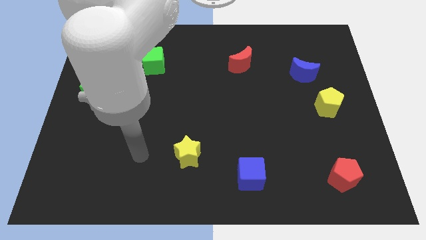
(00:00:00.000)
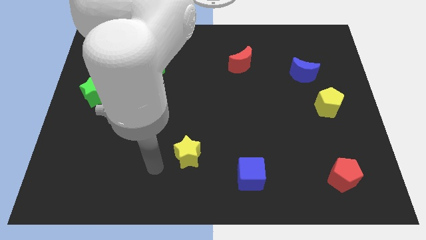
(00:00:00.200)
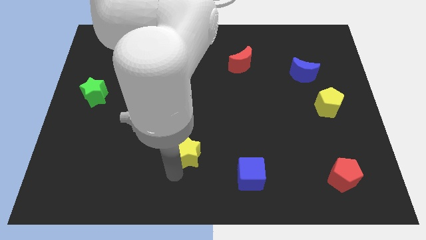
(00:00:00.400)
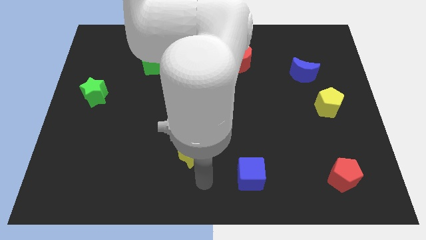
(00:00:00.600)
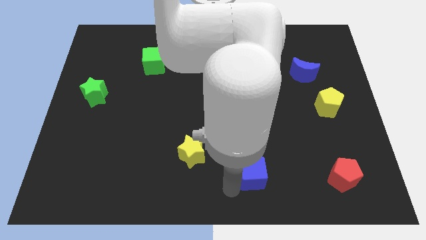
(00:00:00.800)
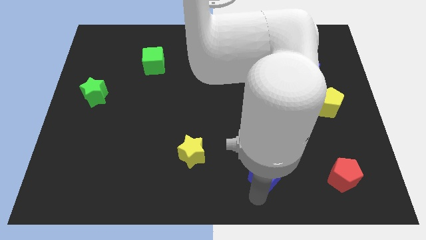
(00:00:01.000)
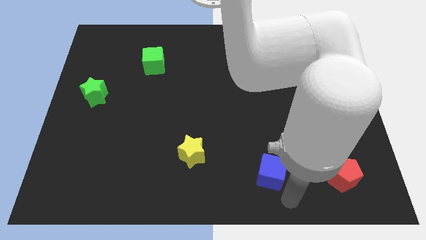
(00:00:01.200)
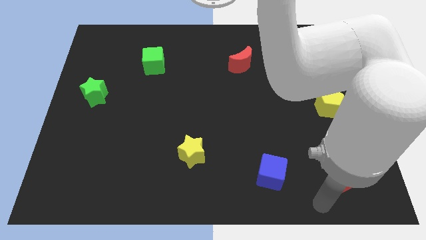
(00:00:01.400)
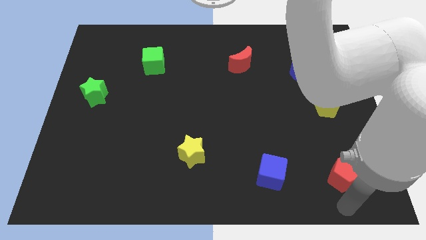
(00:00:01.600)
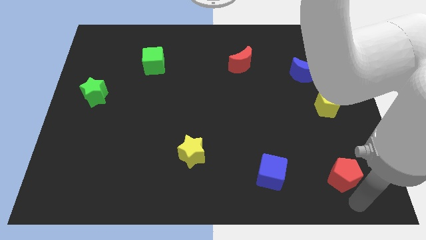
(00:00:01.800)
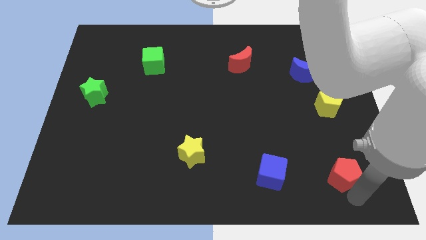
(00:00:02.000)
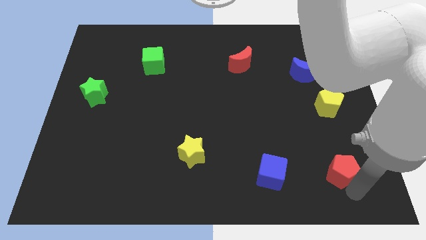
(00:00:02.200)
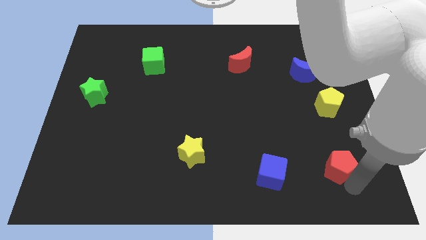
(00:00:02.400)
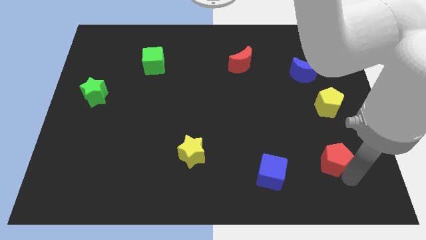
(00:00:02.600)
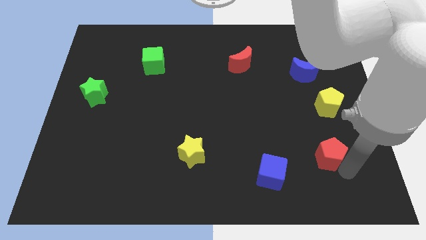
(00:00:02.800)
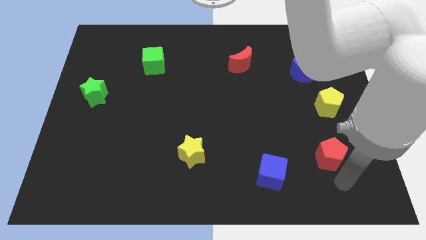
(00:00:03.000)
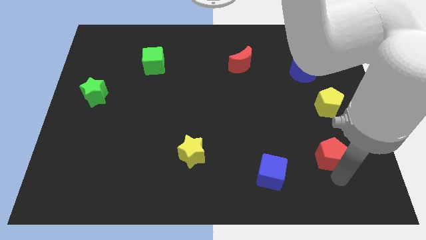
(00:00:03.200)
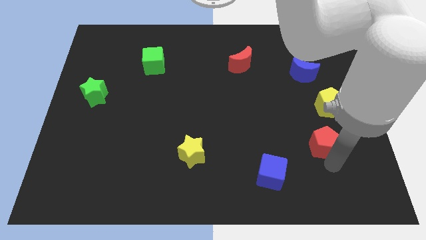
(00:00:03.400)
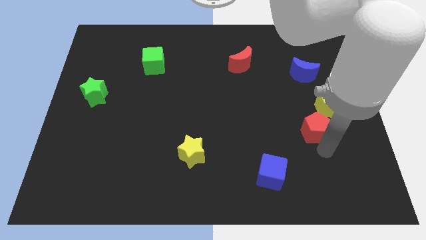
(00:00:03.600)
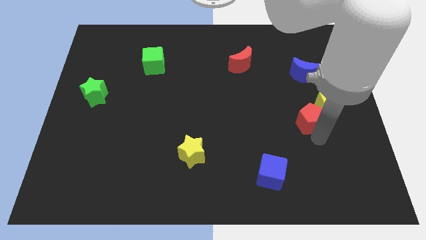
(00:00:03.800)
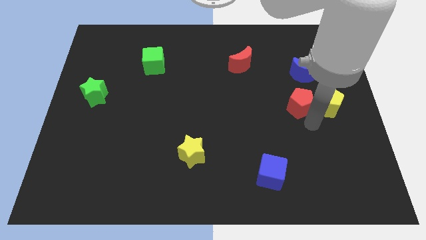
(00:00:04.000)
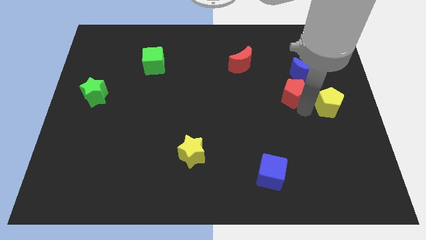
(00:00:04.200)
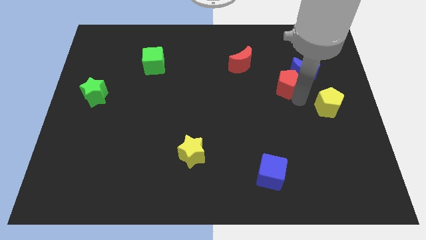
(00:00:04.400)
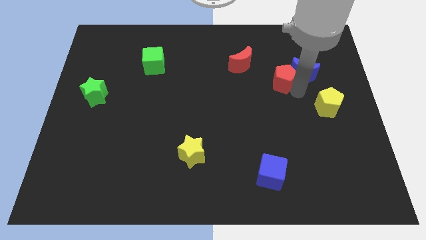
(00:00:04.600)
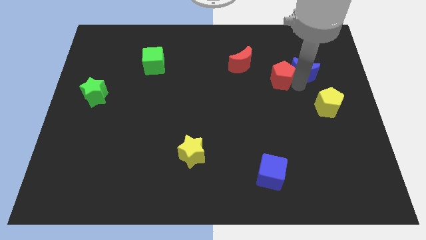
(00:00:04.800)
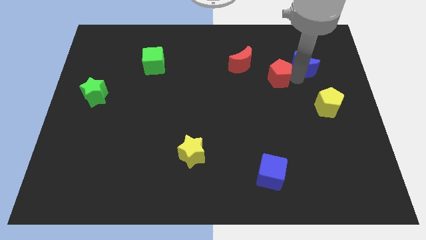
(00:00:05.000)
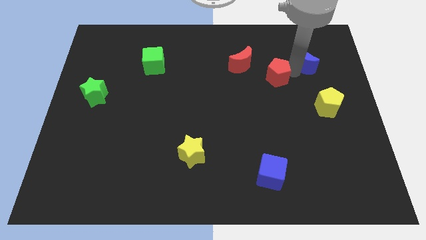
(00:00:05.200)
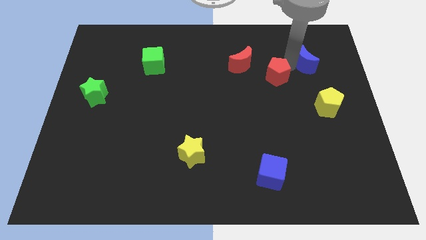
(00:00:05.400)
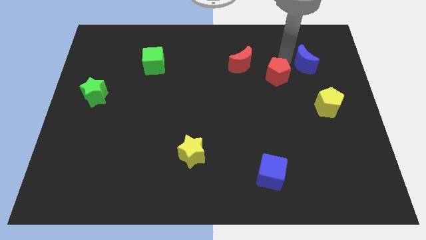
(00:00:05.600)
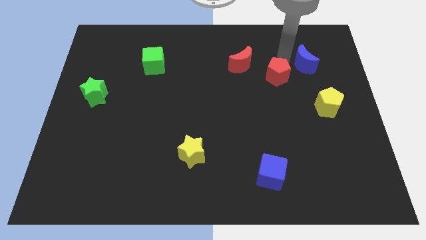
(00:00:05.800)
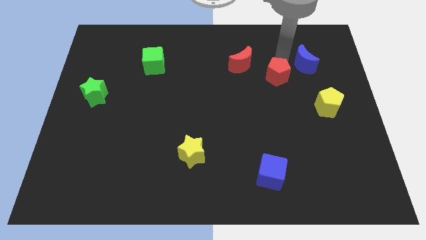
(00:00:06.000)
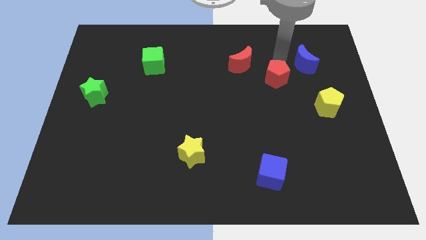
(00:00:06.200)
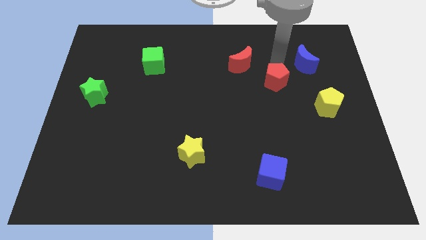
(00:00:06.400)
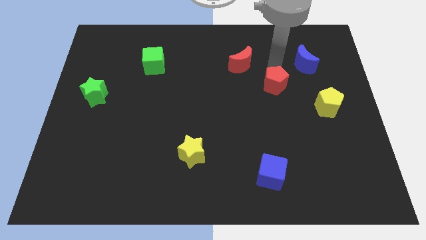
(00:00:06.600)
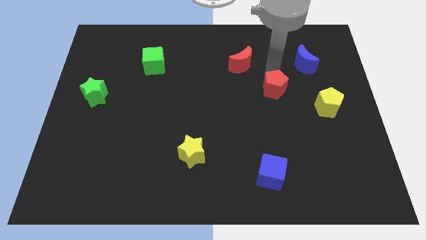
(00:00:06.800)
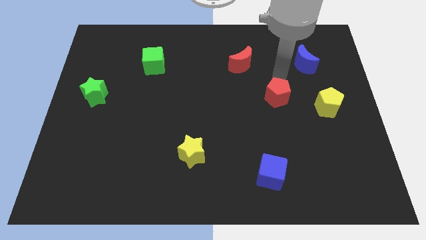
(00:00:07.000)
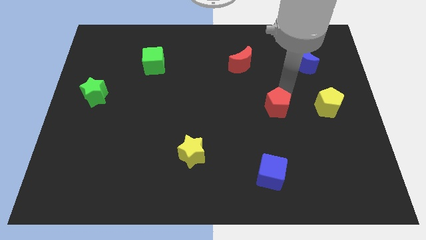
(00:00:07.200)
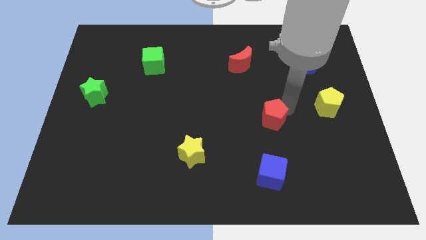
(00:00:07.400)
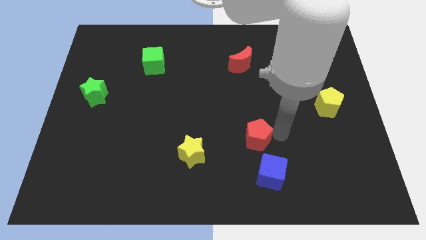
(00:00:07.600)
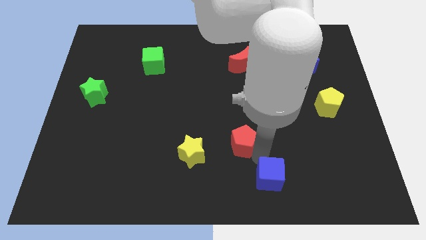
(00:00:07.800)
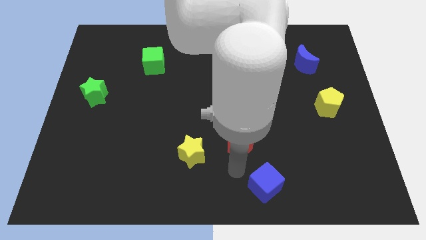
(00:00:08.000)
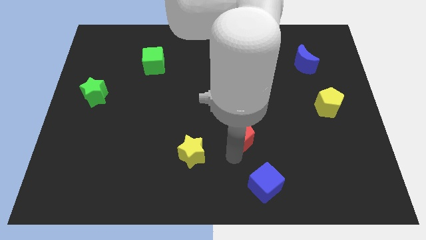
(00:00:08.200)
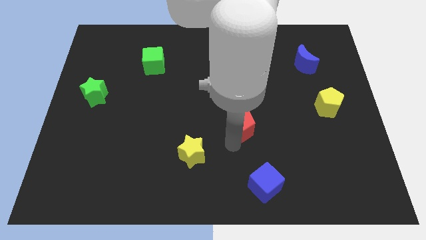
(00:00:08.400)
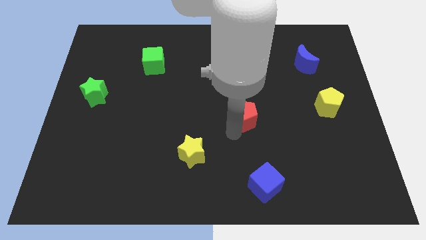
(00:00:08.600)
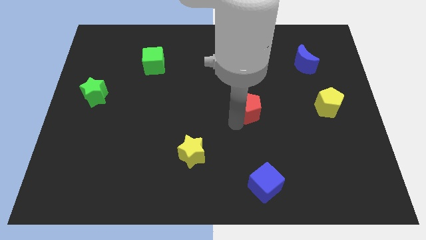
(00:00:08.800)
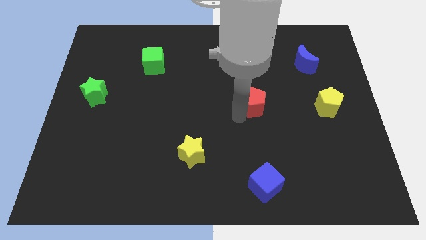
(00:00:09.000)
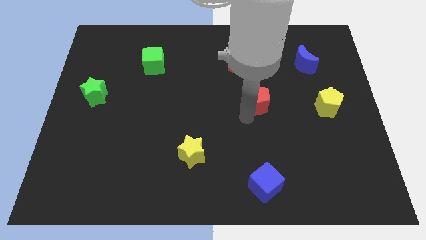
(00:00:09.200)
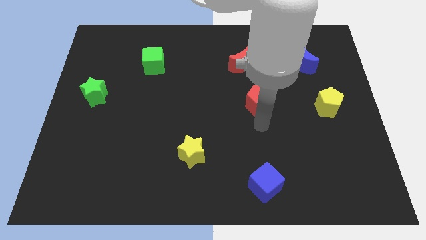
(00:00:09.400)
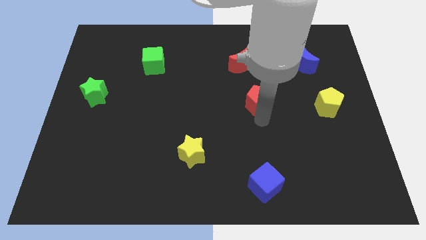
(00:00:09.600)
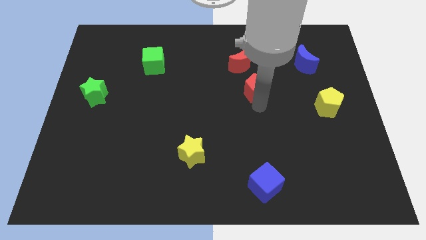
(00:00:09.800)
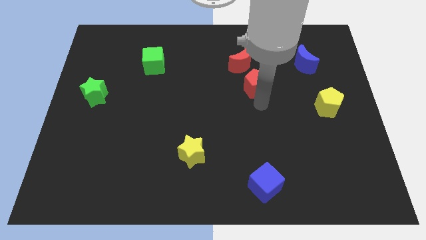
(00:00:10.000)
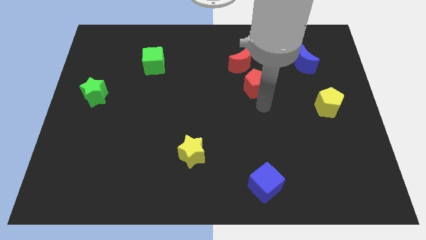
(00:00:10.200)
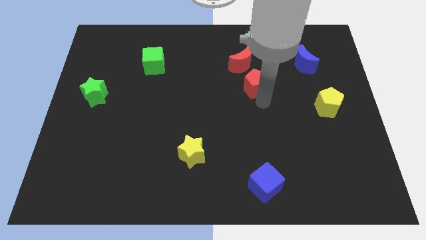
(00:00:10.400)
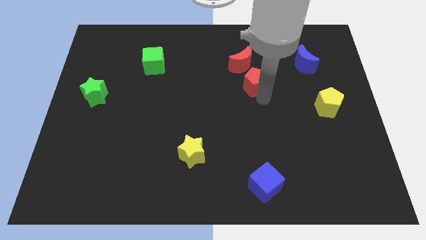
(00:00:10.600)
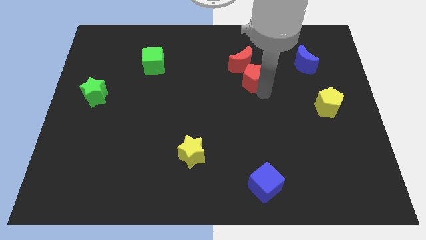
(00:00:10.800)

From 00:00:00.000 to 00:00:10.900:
push the red pentagon close to the red moon

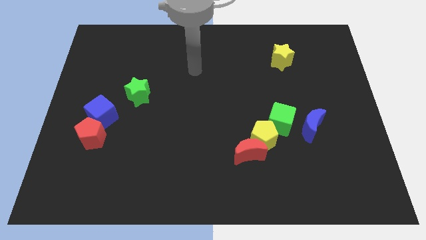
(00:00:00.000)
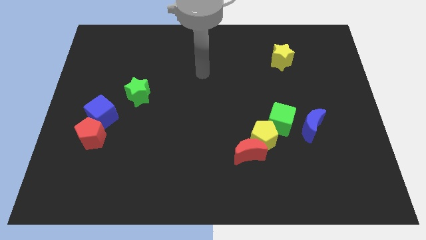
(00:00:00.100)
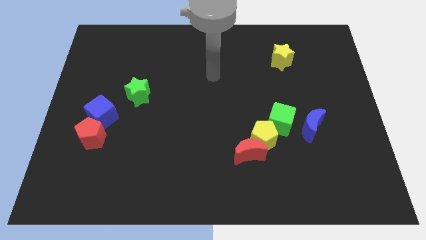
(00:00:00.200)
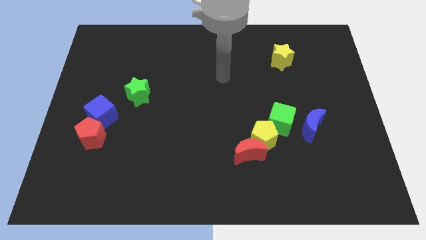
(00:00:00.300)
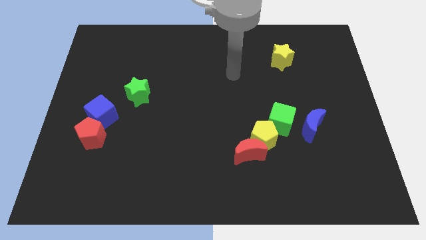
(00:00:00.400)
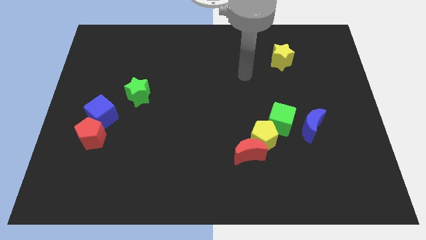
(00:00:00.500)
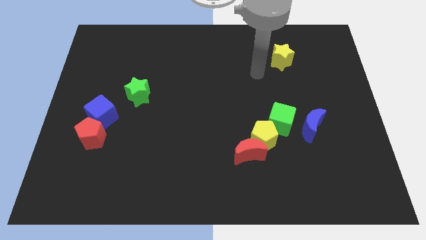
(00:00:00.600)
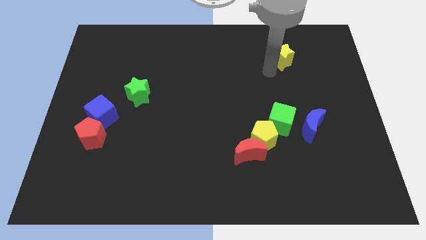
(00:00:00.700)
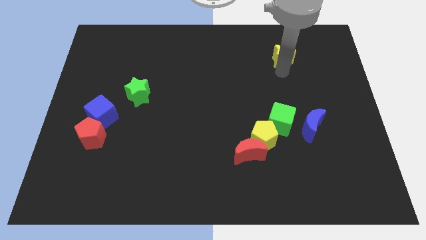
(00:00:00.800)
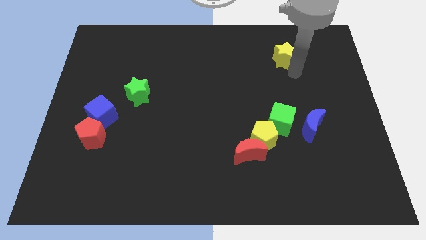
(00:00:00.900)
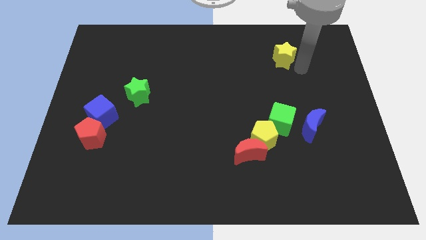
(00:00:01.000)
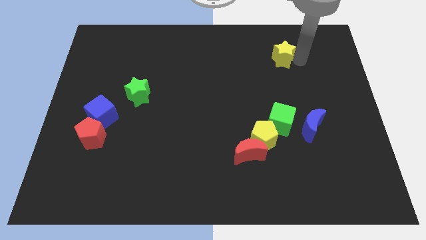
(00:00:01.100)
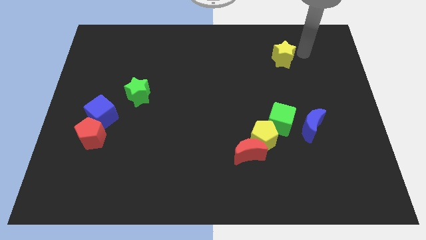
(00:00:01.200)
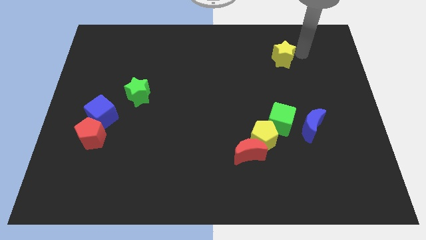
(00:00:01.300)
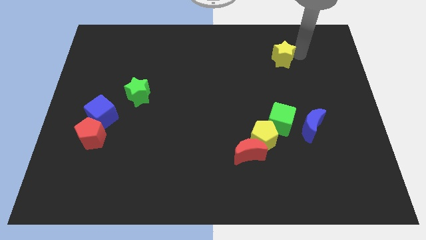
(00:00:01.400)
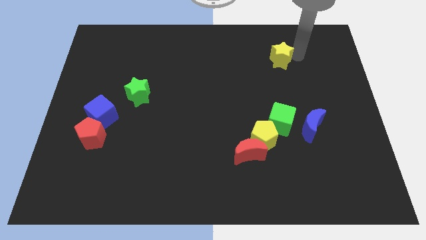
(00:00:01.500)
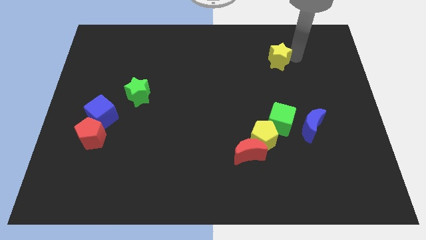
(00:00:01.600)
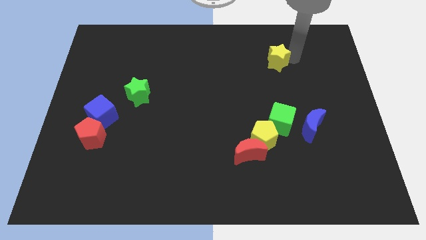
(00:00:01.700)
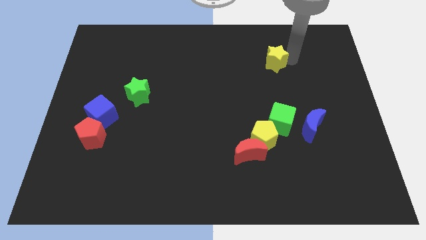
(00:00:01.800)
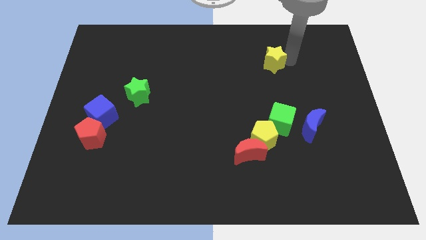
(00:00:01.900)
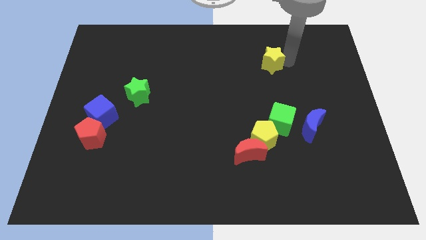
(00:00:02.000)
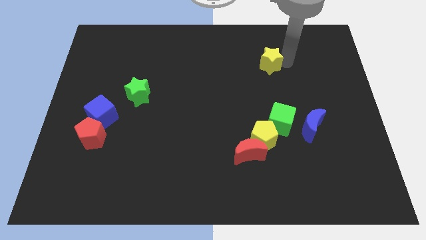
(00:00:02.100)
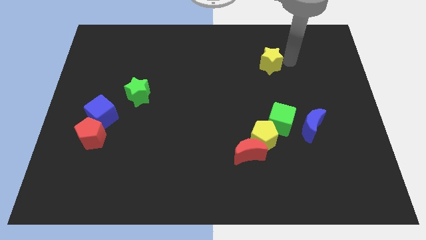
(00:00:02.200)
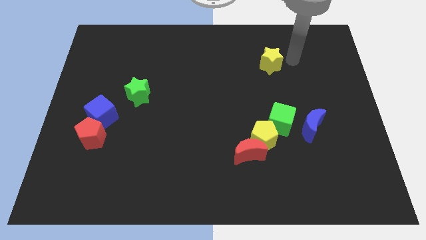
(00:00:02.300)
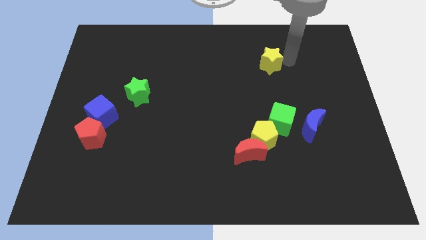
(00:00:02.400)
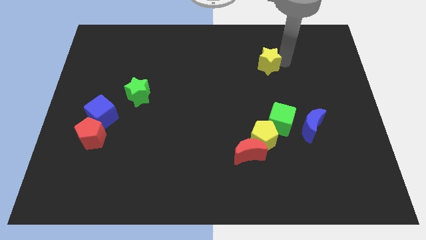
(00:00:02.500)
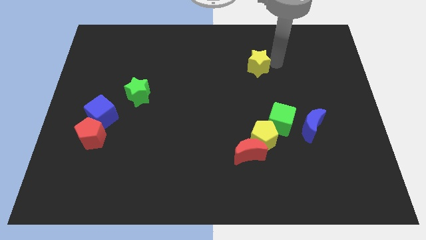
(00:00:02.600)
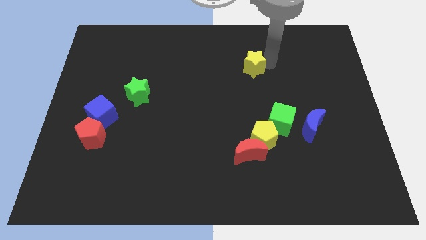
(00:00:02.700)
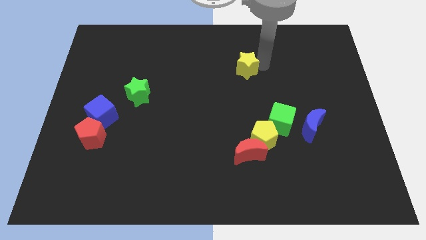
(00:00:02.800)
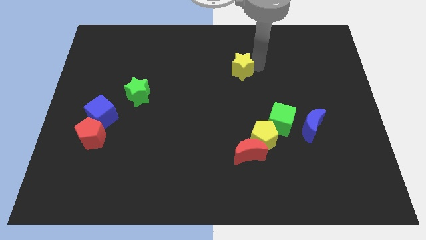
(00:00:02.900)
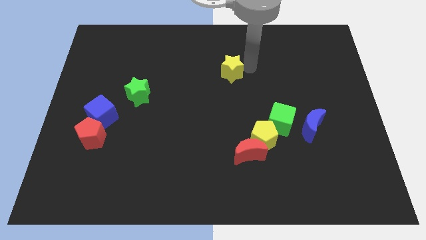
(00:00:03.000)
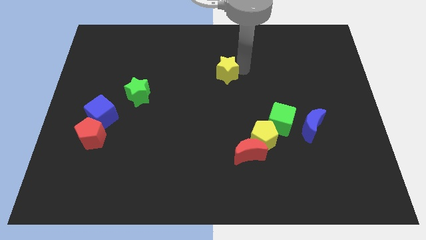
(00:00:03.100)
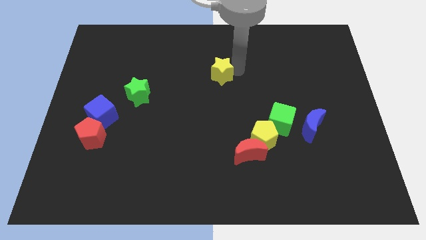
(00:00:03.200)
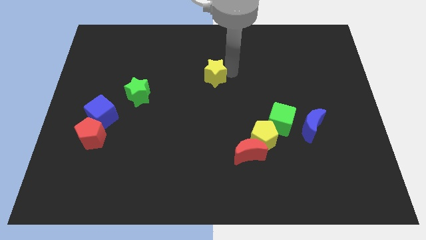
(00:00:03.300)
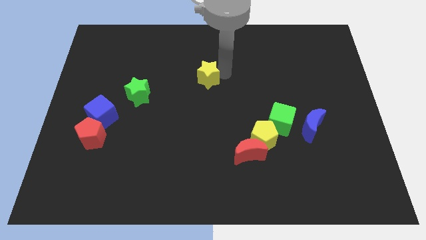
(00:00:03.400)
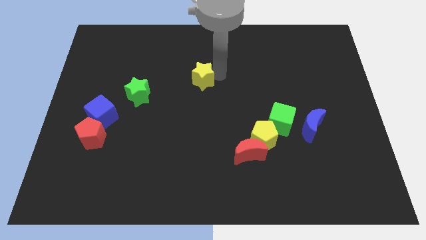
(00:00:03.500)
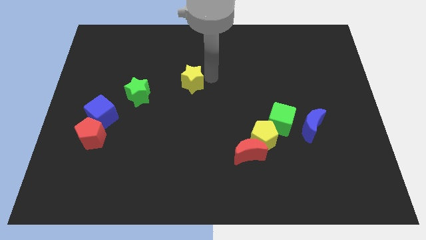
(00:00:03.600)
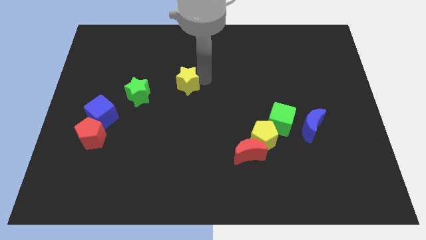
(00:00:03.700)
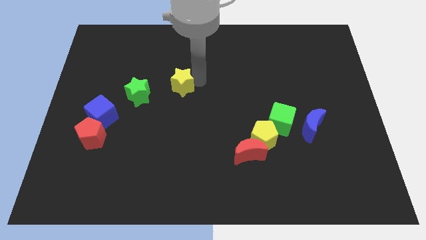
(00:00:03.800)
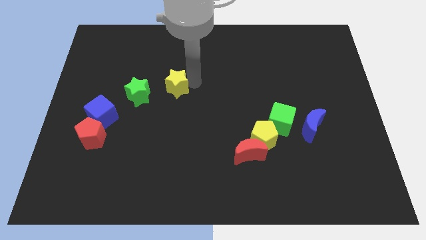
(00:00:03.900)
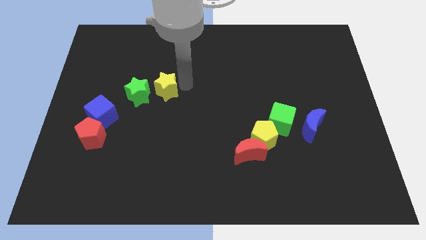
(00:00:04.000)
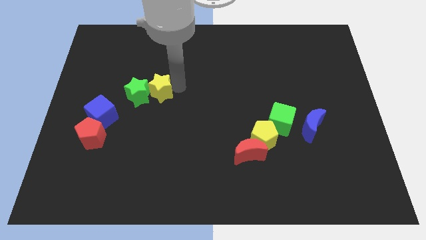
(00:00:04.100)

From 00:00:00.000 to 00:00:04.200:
move the yellow star close to the green star
